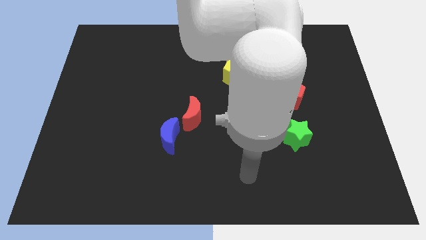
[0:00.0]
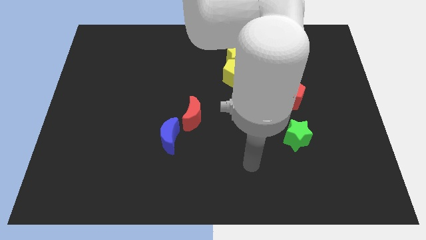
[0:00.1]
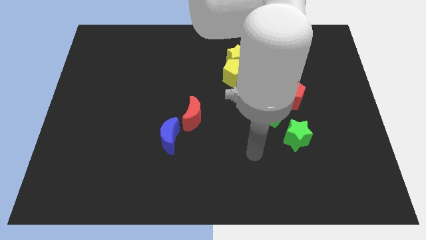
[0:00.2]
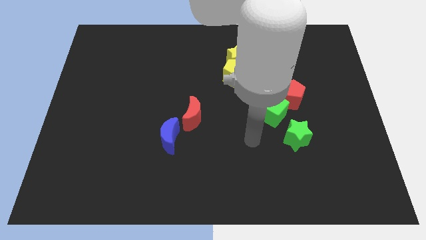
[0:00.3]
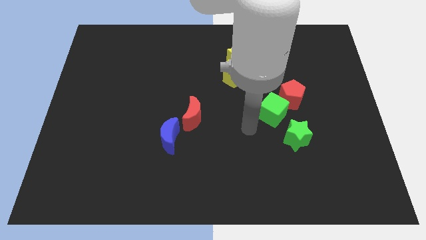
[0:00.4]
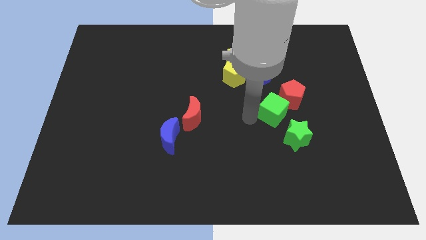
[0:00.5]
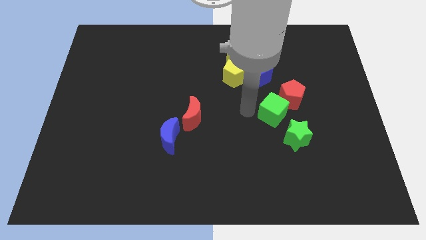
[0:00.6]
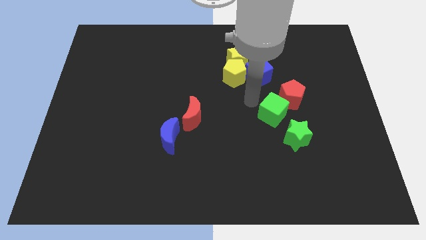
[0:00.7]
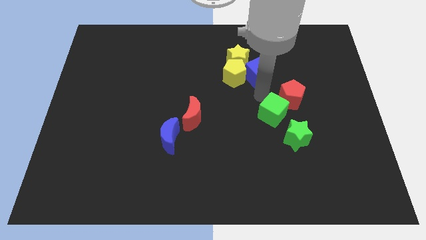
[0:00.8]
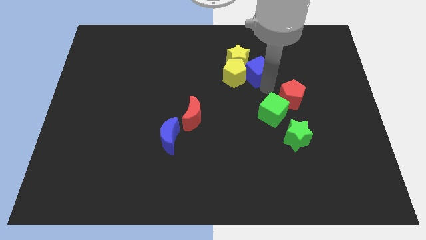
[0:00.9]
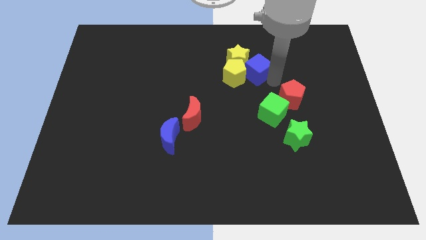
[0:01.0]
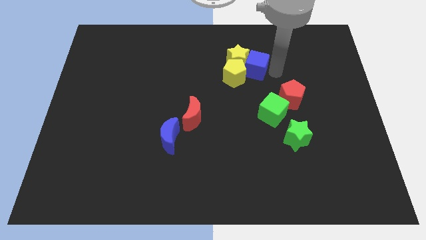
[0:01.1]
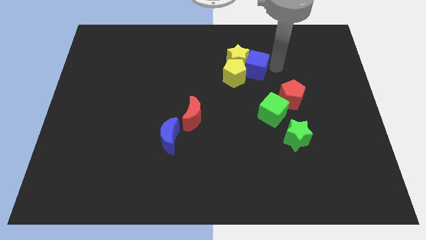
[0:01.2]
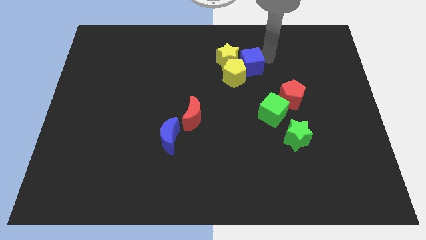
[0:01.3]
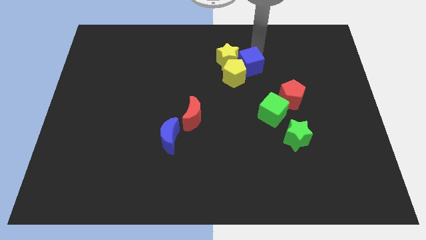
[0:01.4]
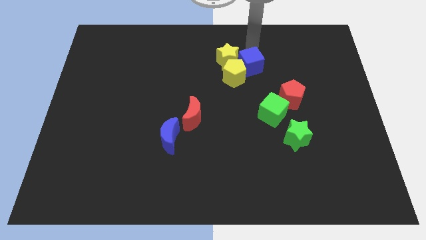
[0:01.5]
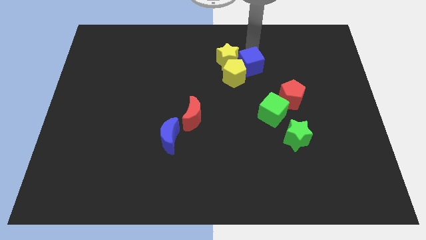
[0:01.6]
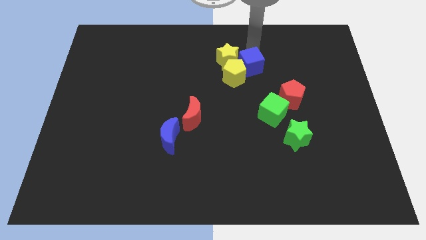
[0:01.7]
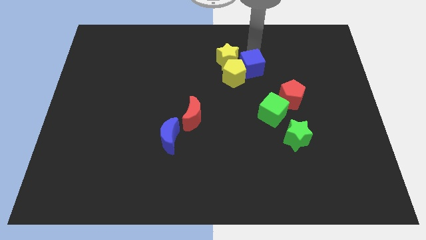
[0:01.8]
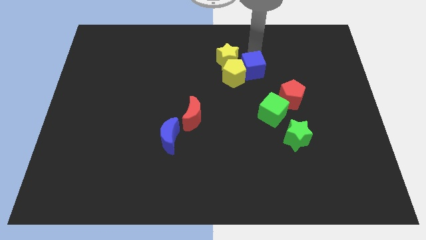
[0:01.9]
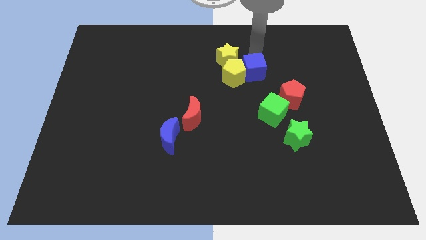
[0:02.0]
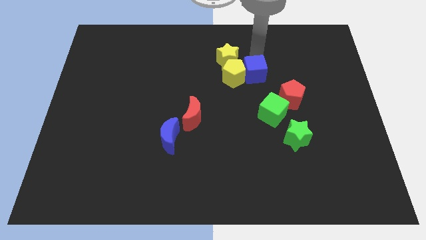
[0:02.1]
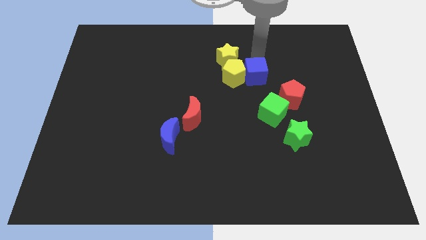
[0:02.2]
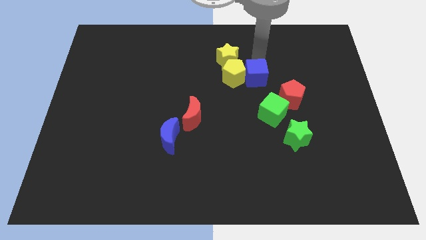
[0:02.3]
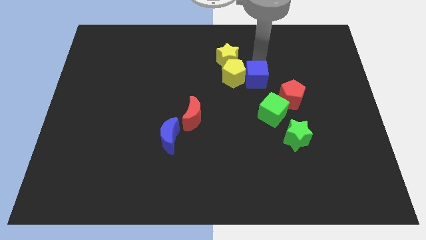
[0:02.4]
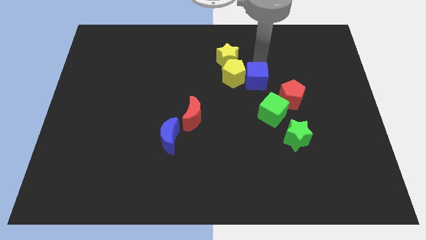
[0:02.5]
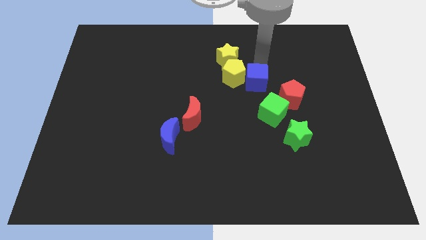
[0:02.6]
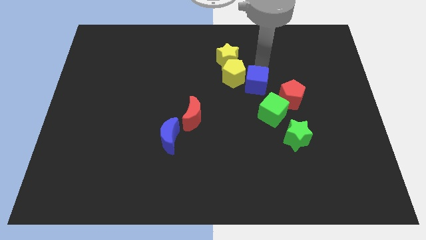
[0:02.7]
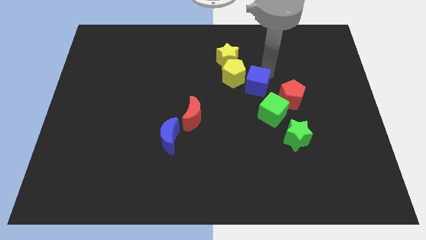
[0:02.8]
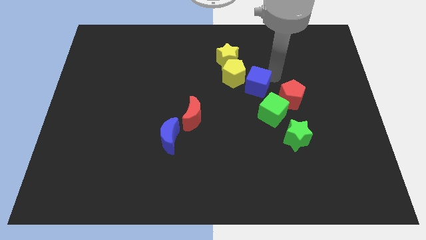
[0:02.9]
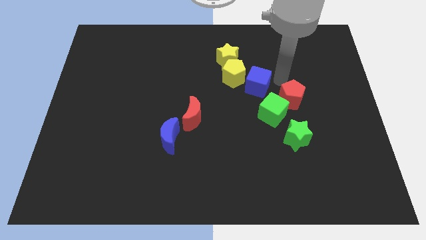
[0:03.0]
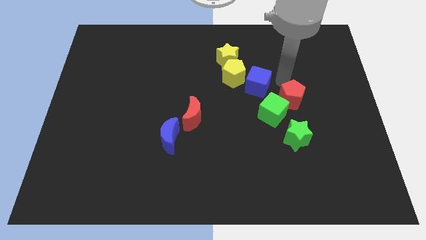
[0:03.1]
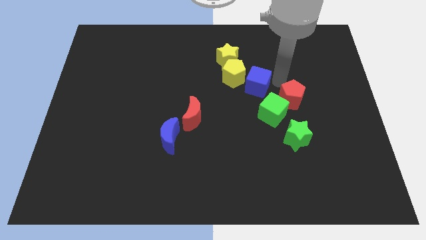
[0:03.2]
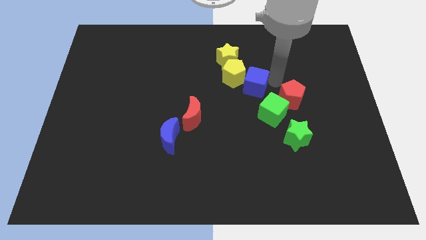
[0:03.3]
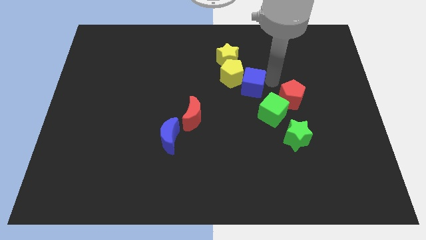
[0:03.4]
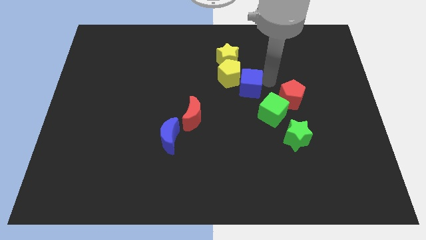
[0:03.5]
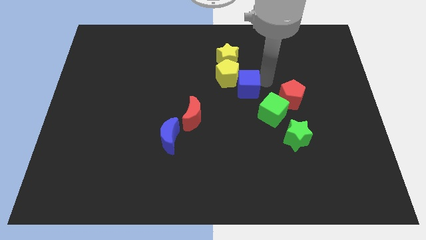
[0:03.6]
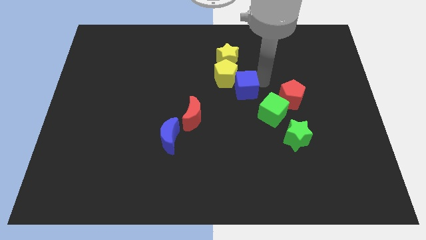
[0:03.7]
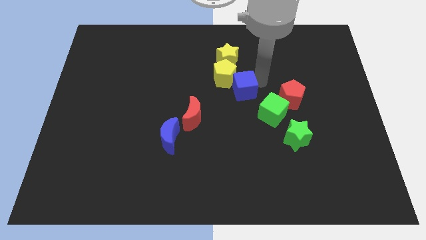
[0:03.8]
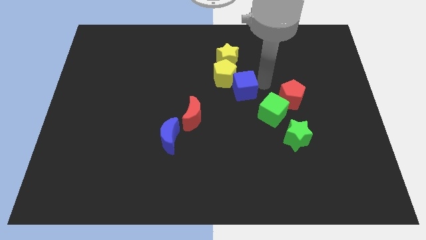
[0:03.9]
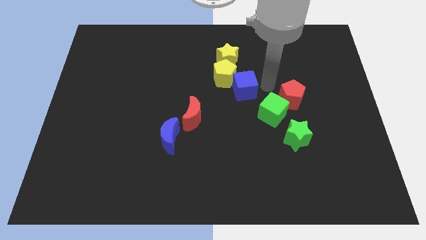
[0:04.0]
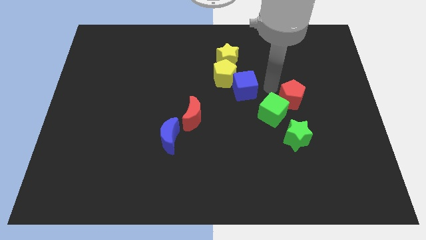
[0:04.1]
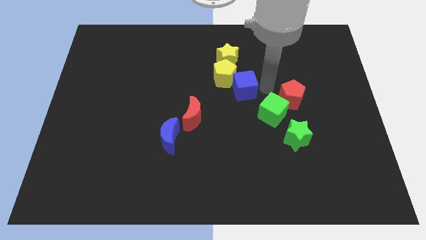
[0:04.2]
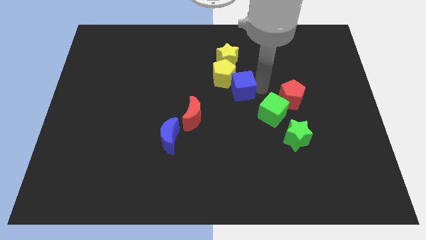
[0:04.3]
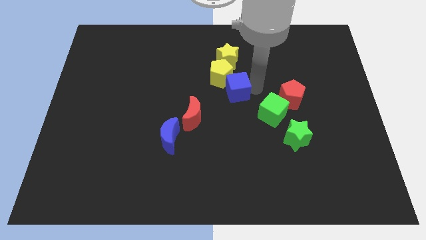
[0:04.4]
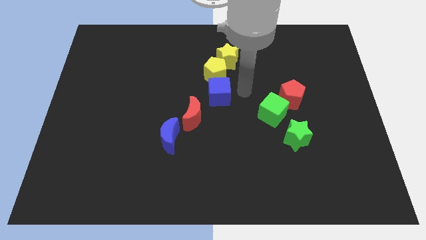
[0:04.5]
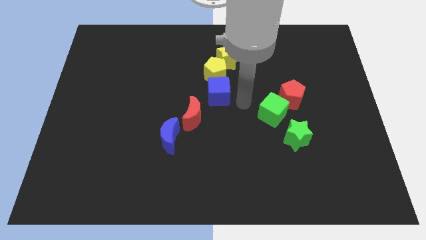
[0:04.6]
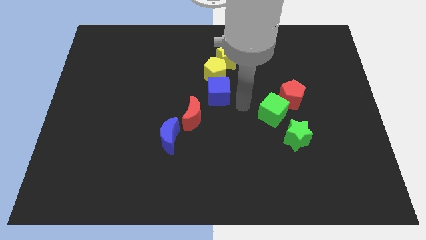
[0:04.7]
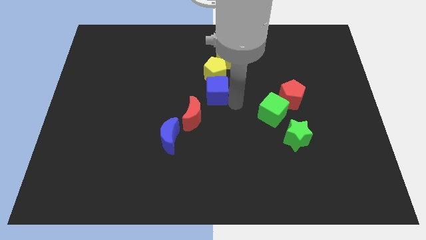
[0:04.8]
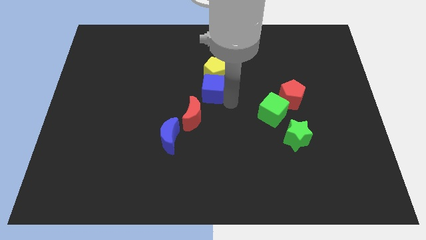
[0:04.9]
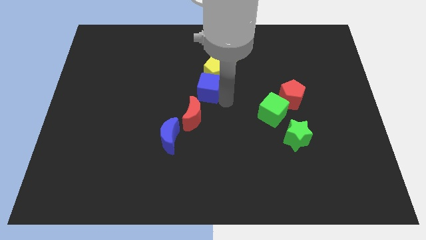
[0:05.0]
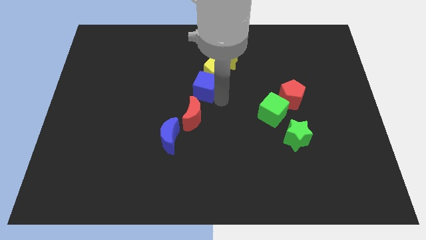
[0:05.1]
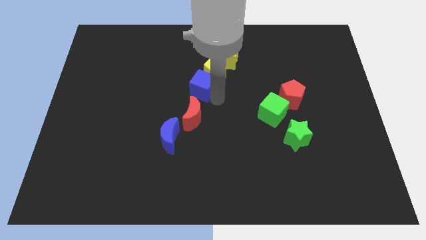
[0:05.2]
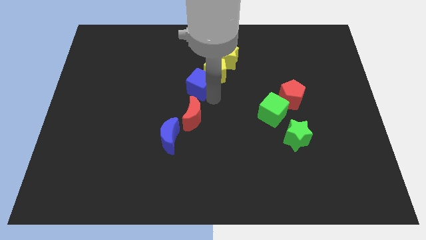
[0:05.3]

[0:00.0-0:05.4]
push the blue cube to the left side of the yellow pentagon

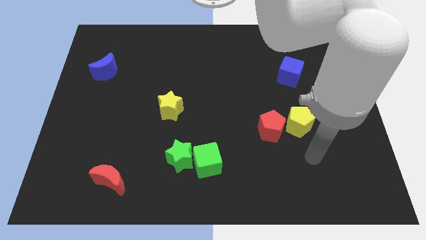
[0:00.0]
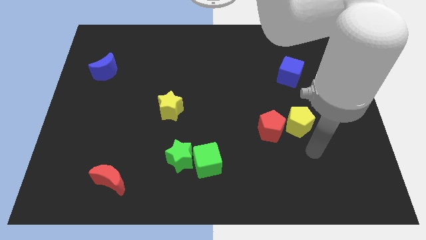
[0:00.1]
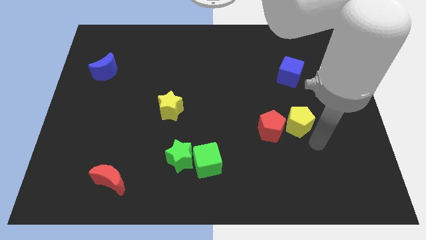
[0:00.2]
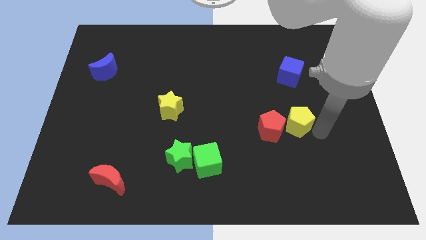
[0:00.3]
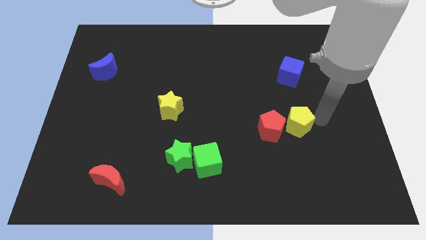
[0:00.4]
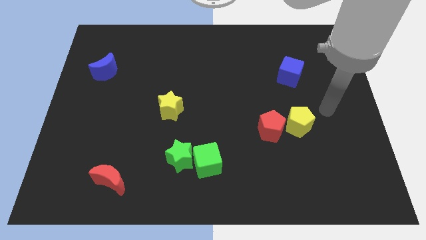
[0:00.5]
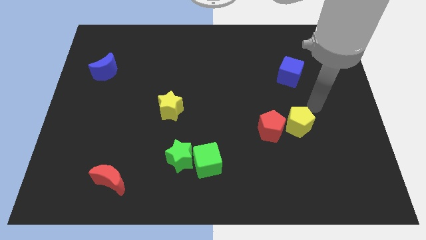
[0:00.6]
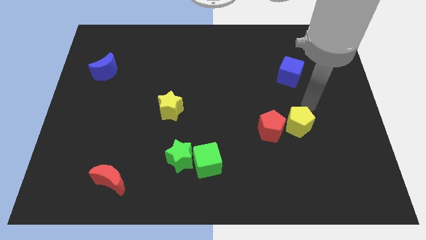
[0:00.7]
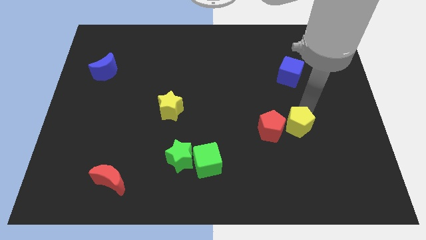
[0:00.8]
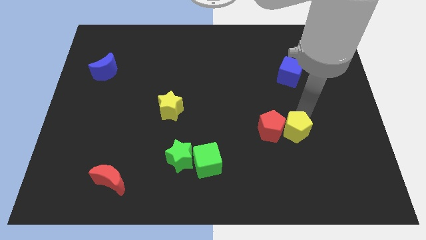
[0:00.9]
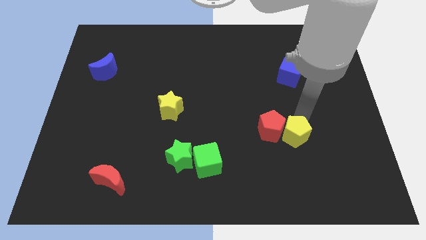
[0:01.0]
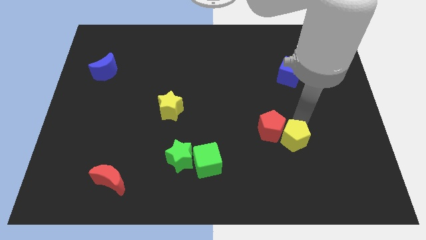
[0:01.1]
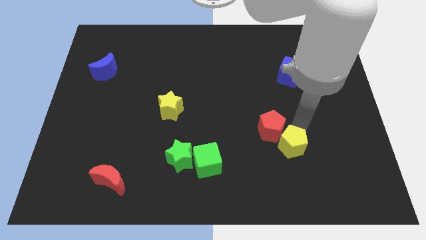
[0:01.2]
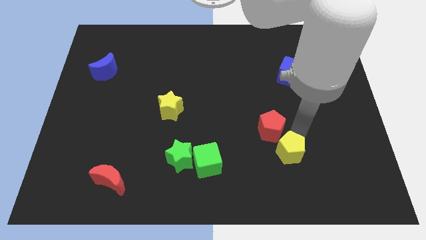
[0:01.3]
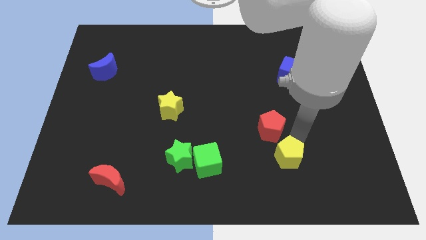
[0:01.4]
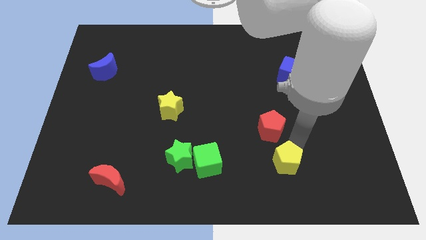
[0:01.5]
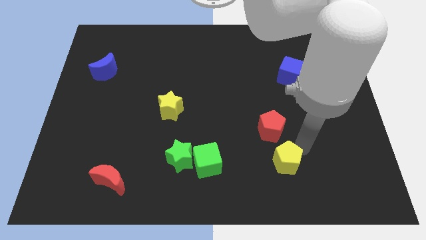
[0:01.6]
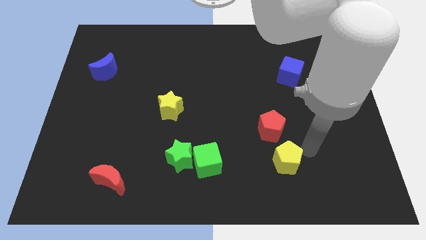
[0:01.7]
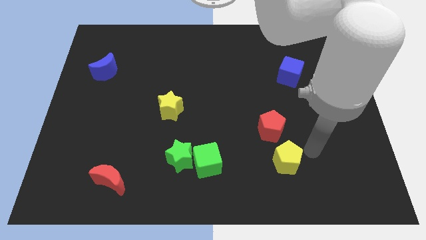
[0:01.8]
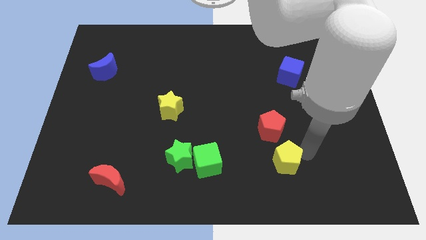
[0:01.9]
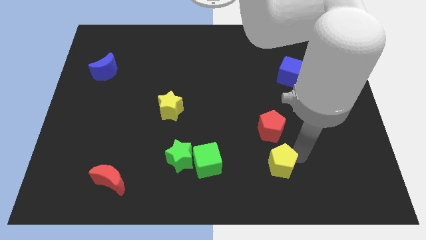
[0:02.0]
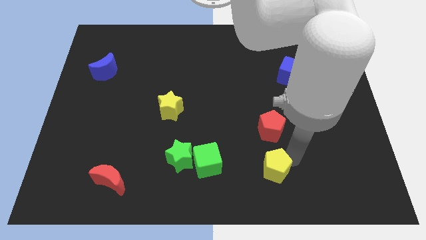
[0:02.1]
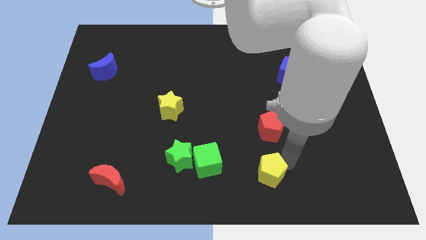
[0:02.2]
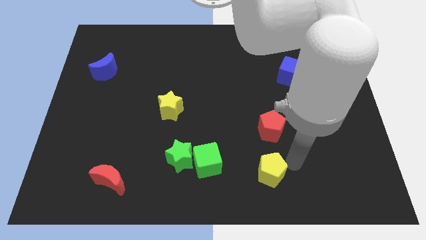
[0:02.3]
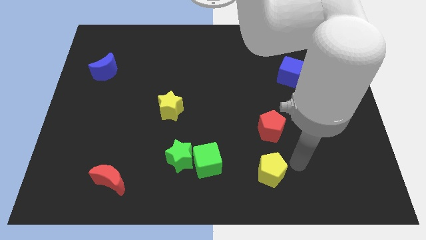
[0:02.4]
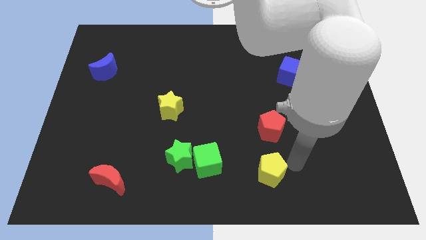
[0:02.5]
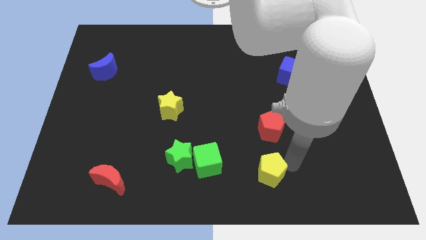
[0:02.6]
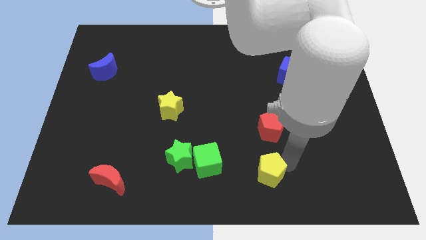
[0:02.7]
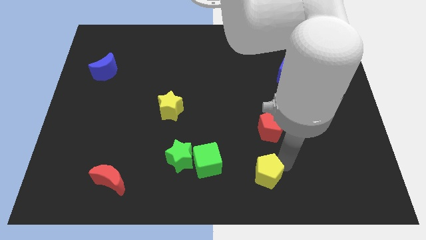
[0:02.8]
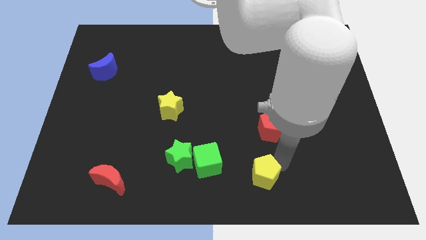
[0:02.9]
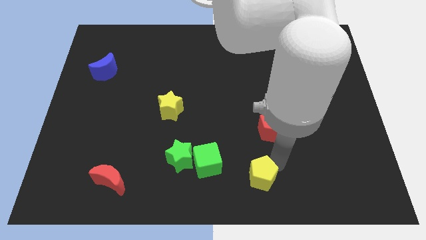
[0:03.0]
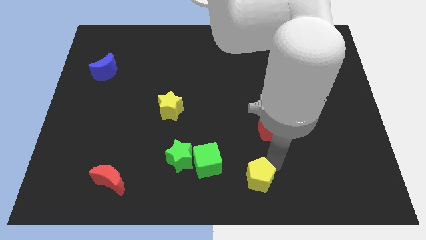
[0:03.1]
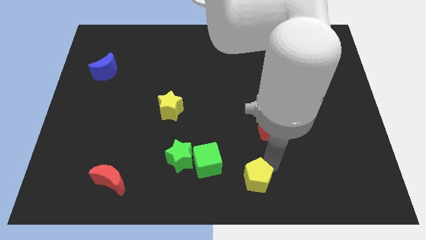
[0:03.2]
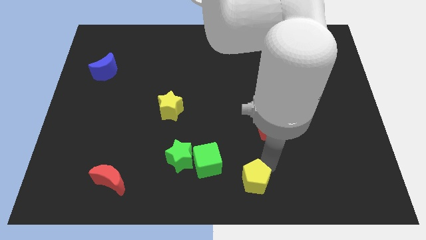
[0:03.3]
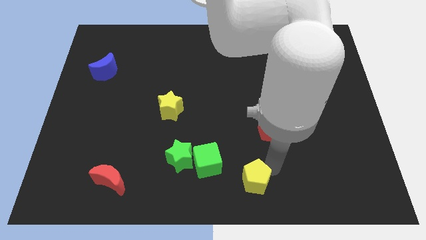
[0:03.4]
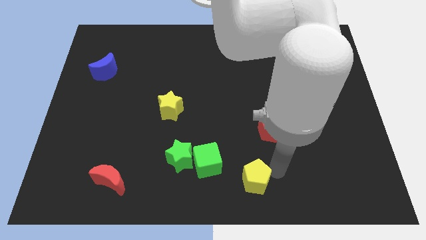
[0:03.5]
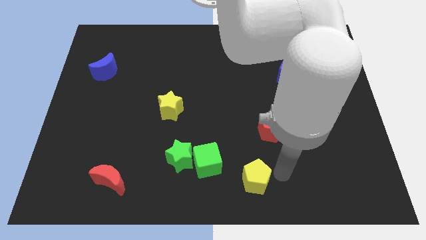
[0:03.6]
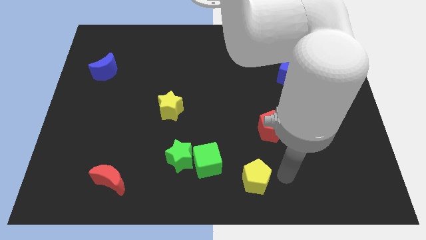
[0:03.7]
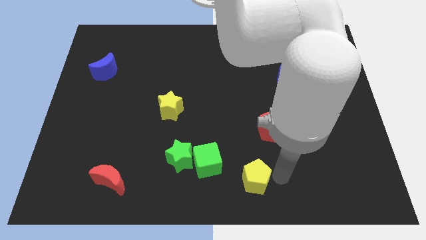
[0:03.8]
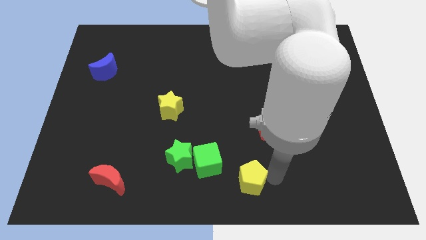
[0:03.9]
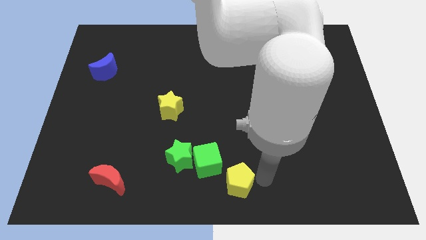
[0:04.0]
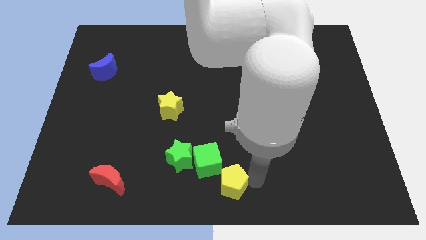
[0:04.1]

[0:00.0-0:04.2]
push the yellow pentagon to the bottom right side of the green star
